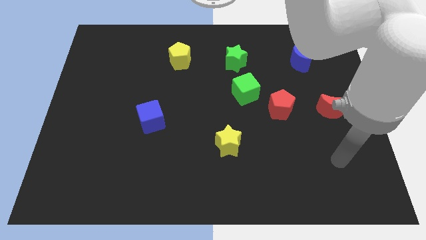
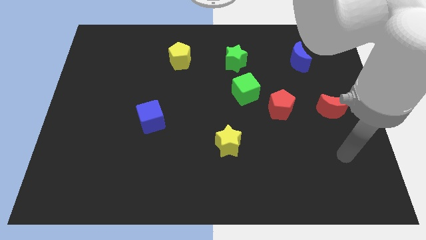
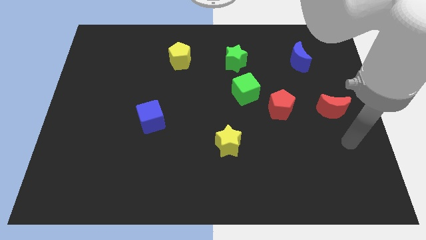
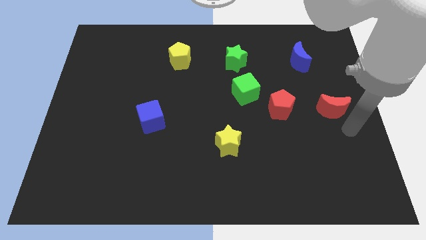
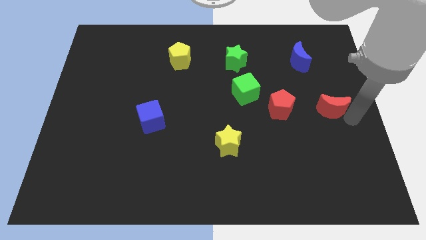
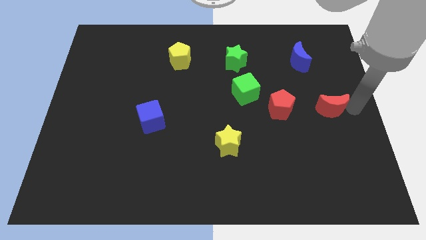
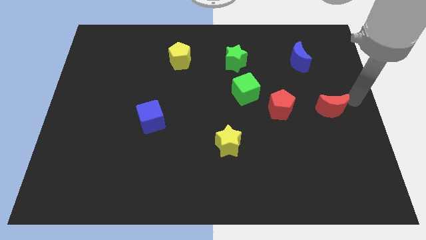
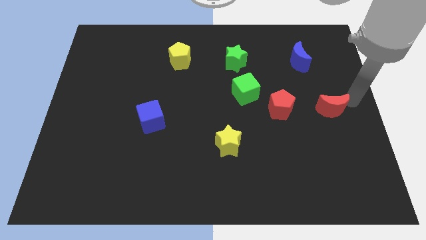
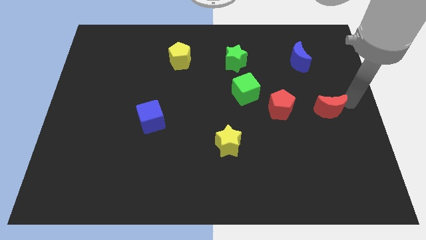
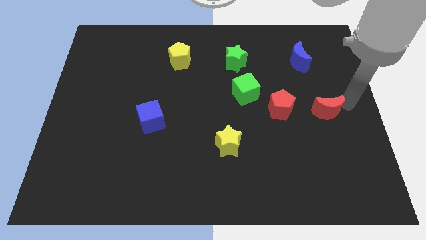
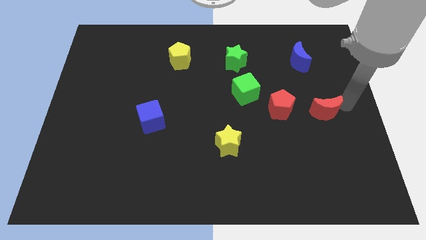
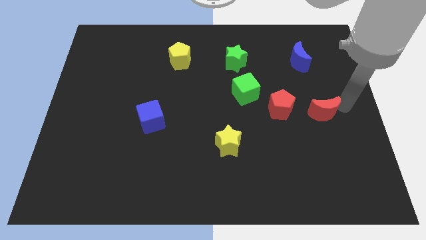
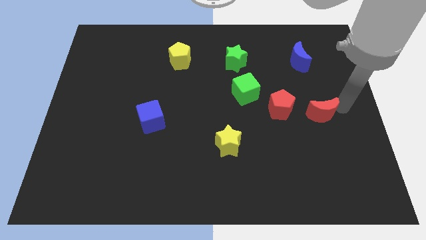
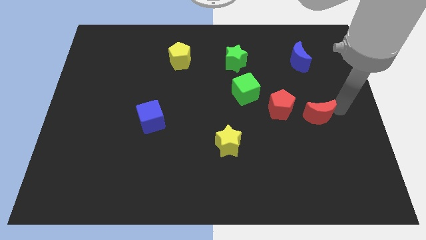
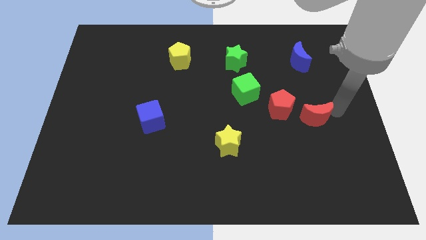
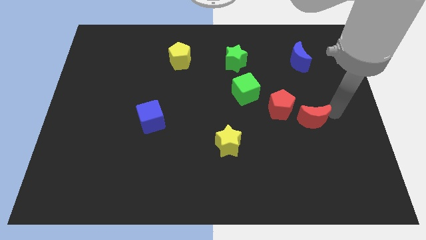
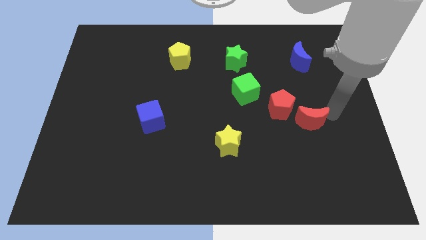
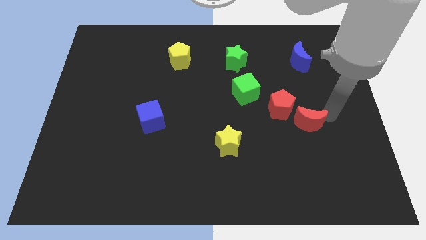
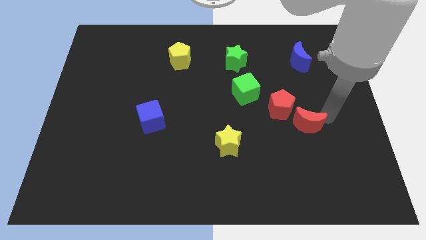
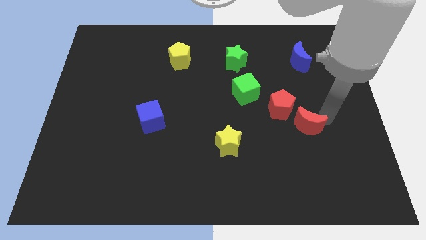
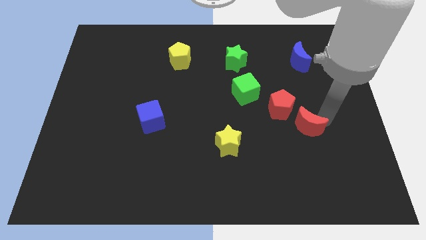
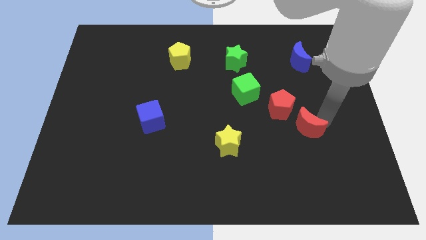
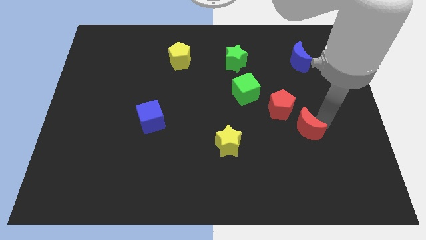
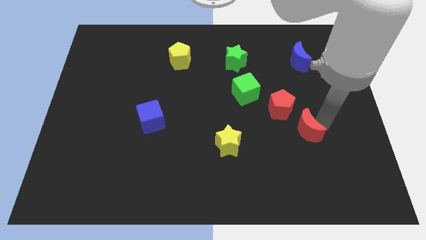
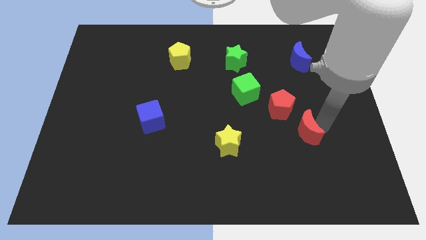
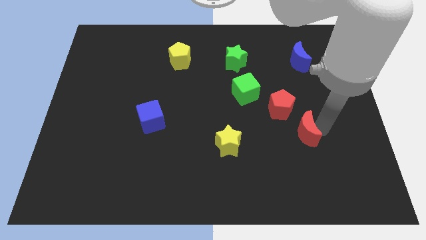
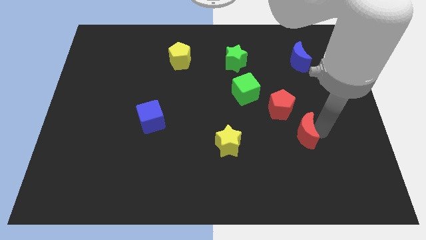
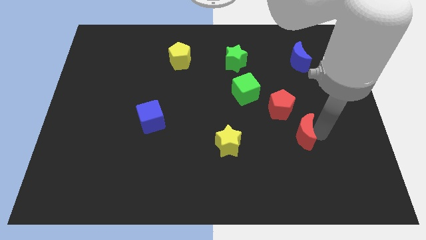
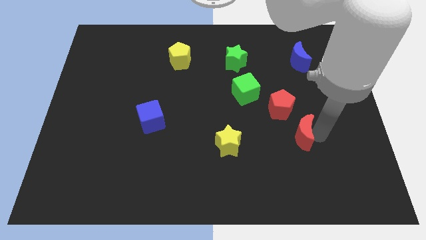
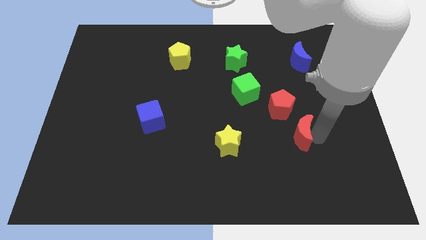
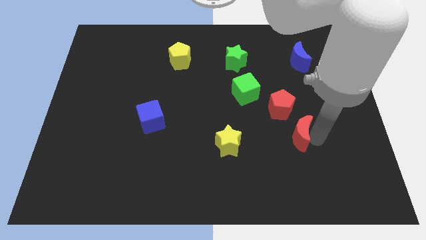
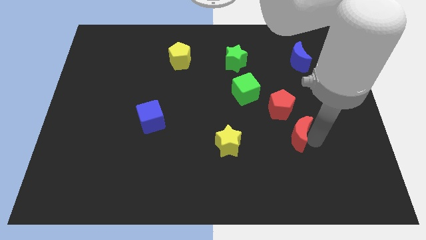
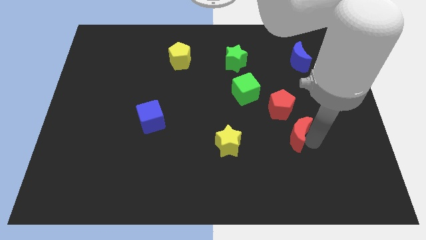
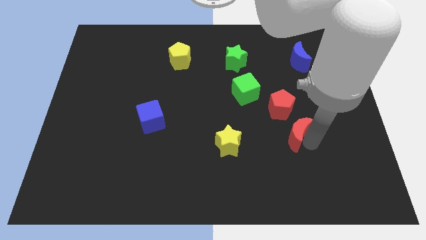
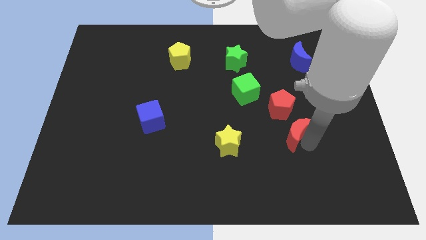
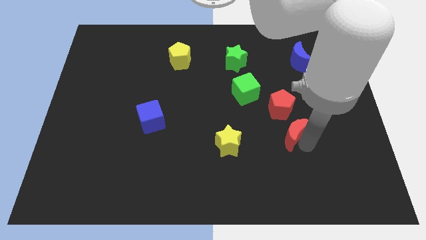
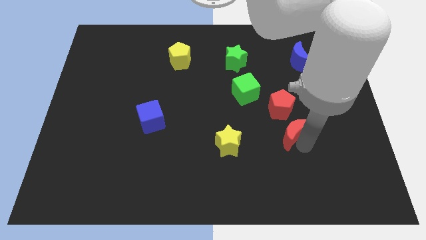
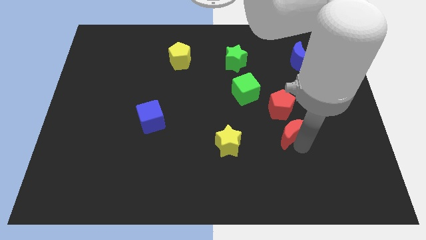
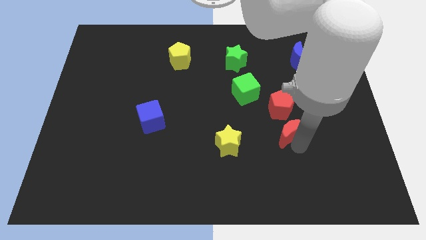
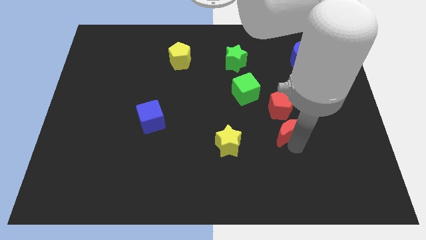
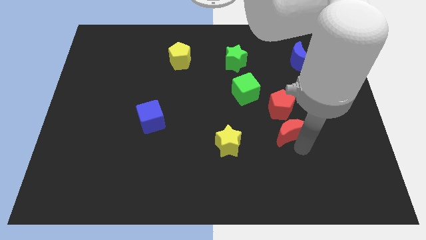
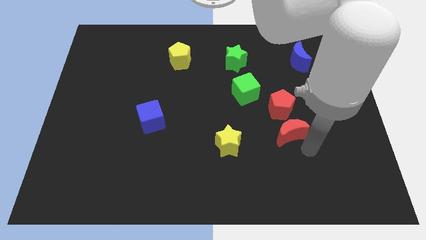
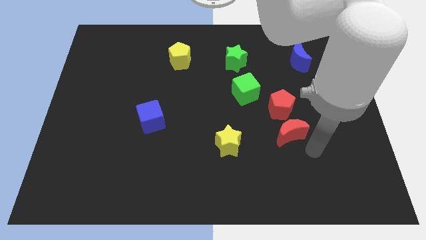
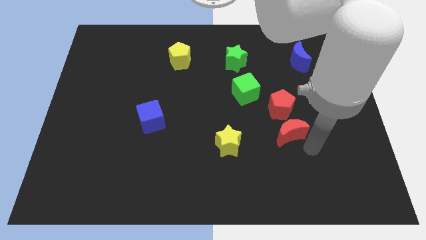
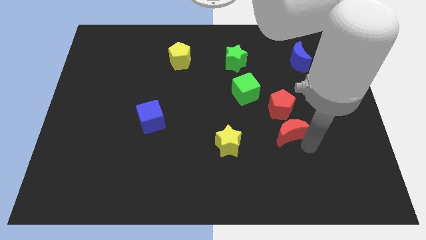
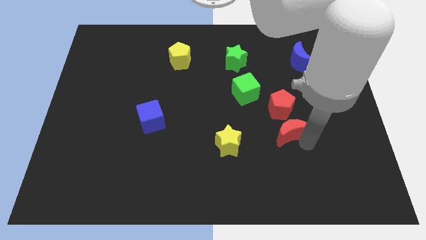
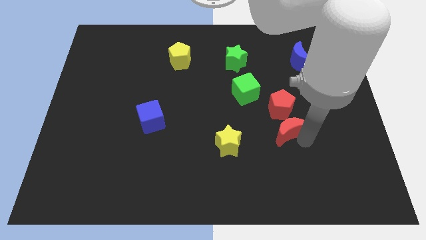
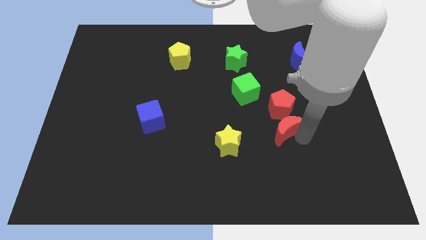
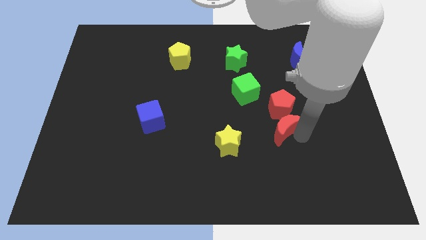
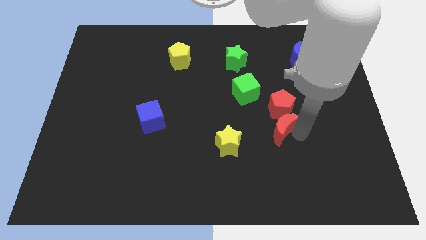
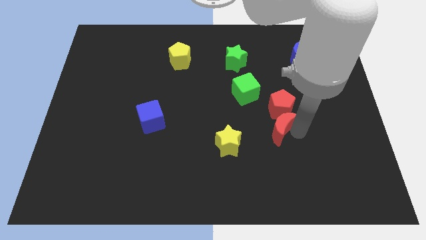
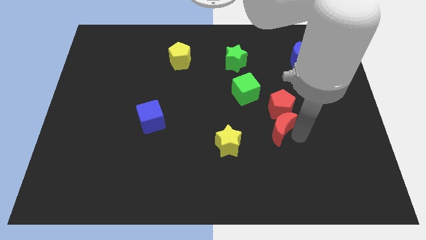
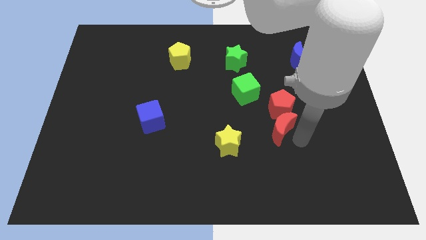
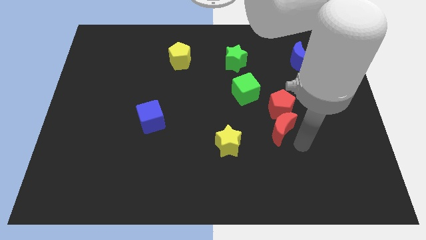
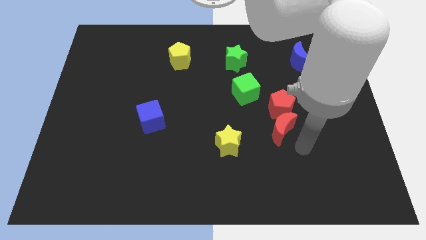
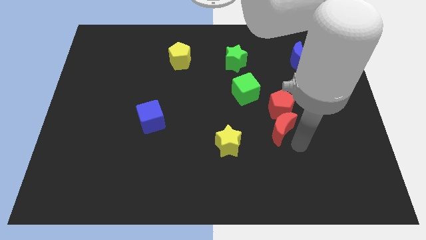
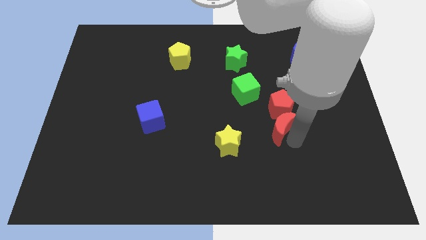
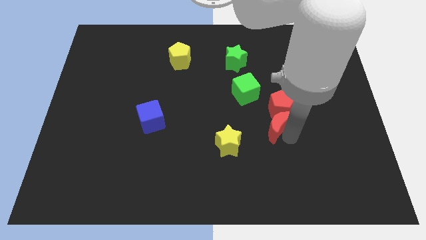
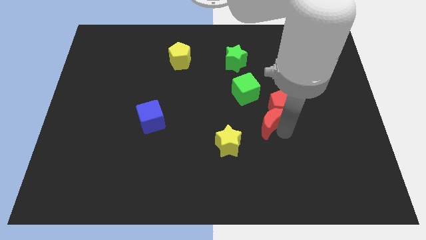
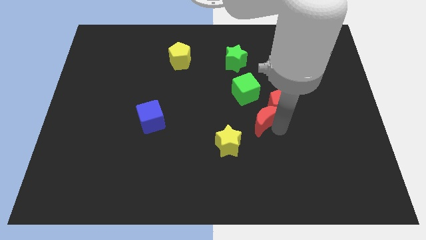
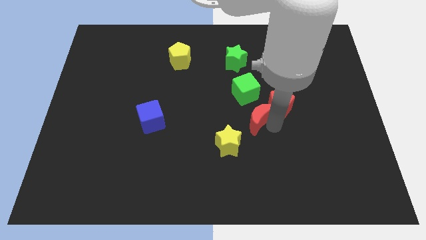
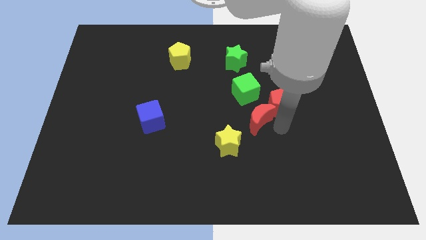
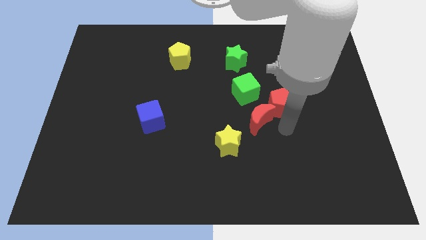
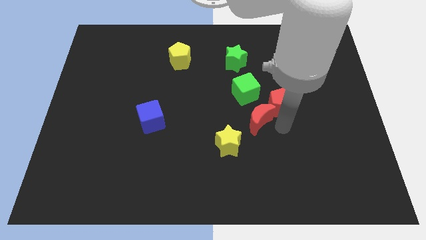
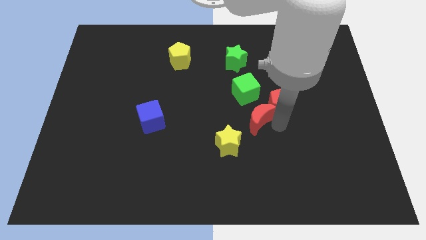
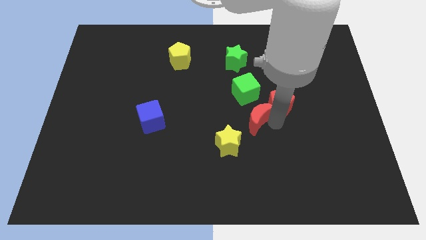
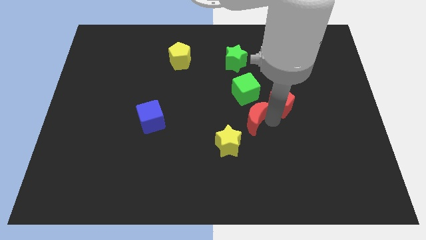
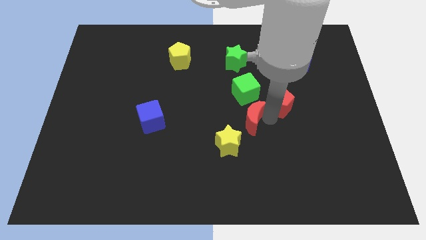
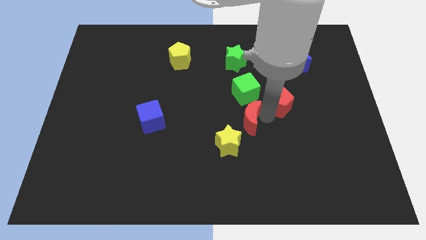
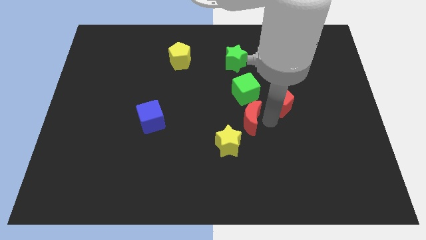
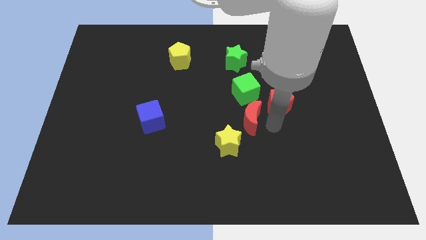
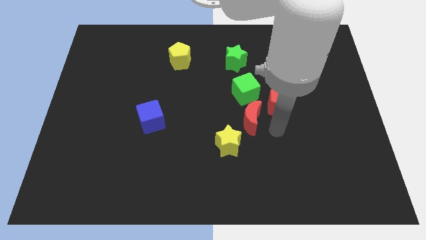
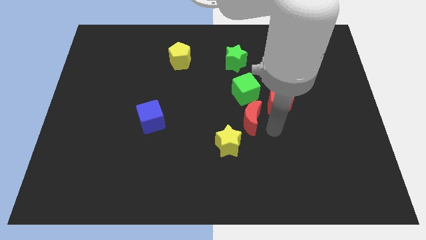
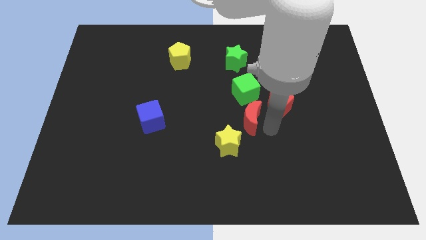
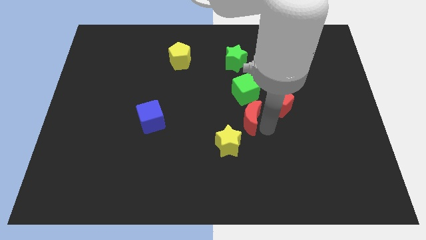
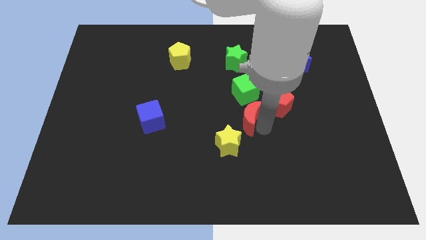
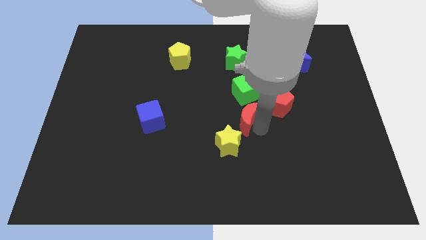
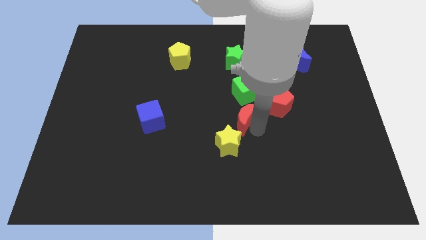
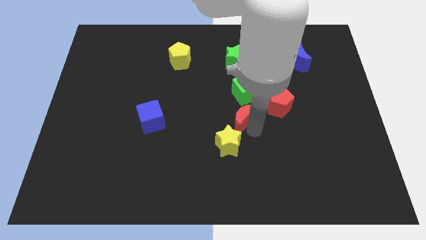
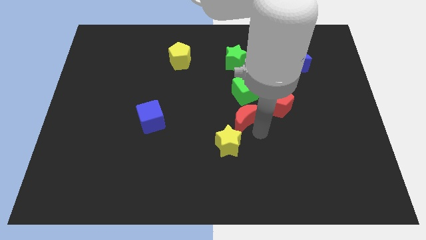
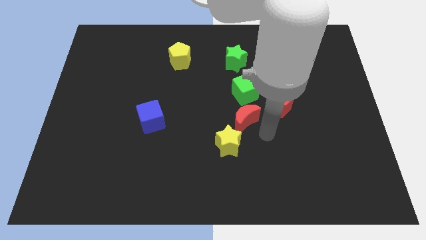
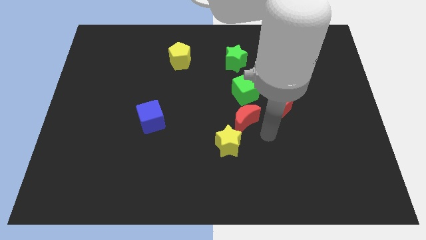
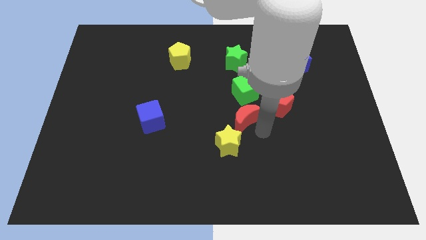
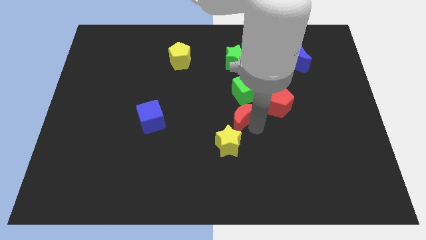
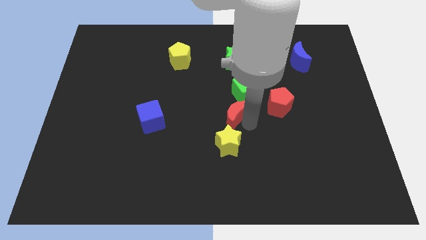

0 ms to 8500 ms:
put the red moon diagonally down and to the left of the green cube
